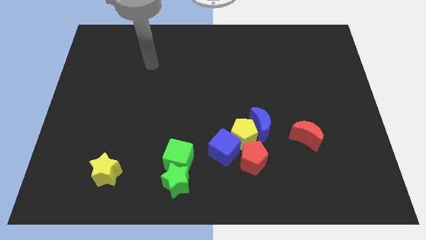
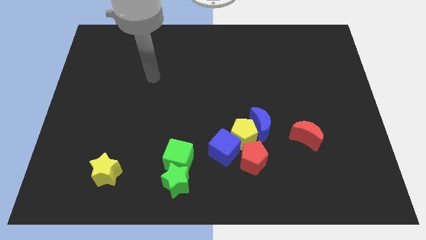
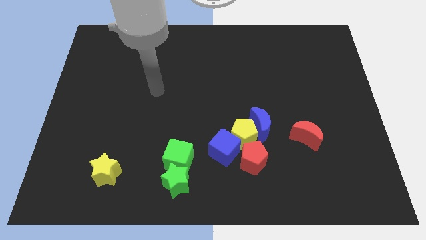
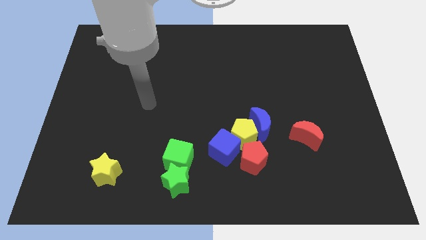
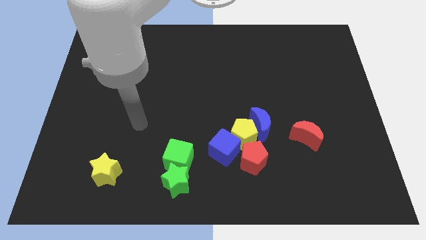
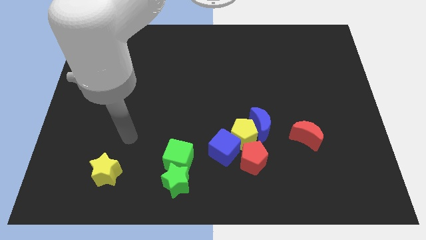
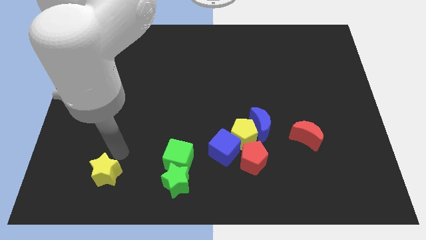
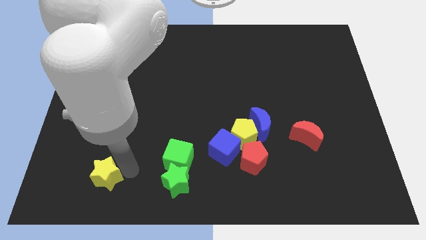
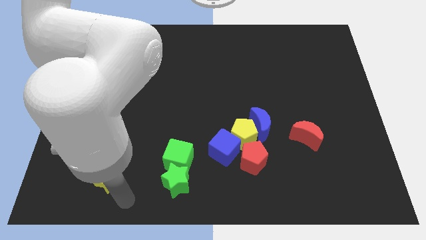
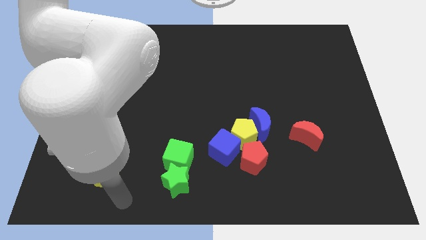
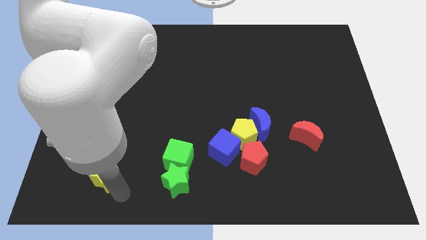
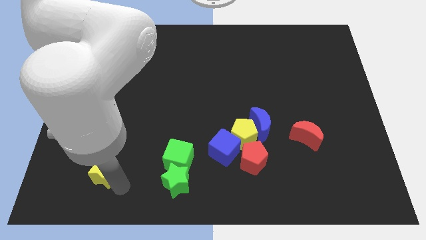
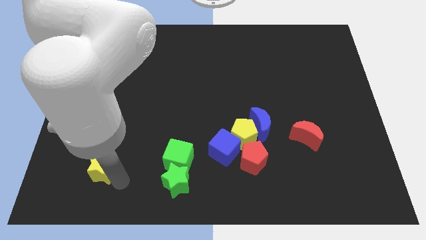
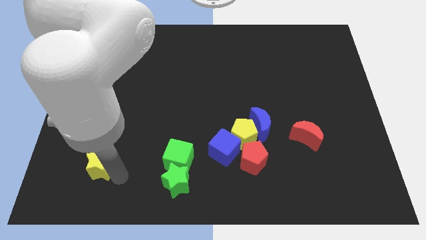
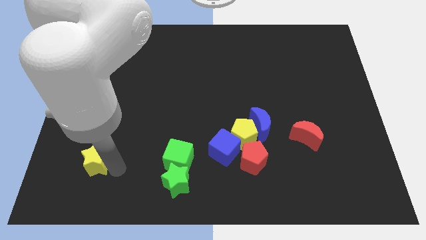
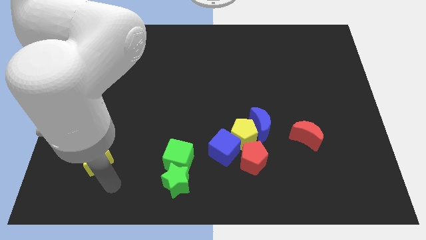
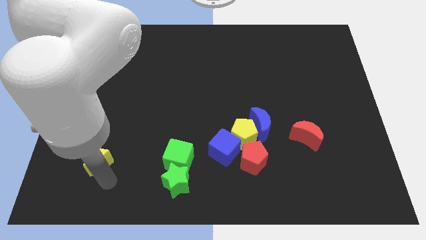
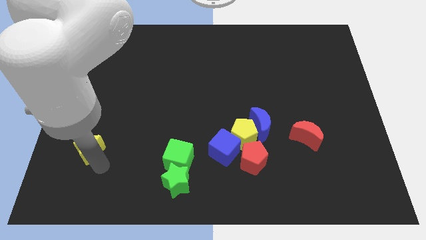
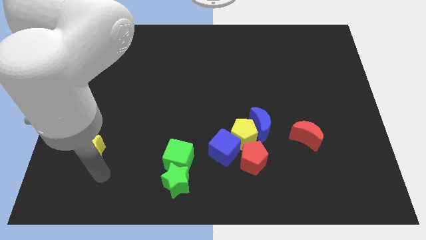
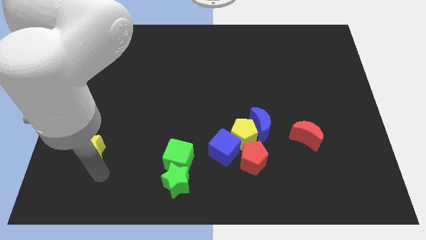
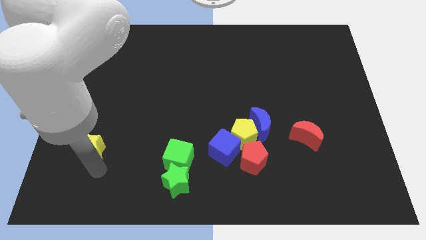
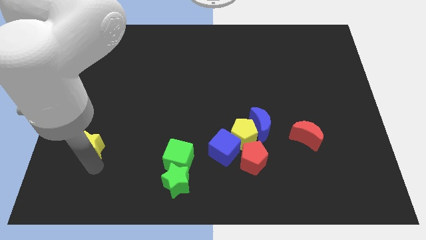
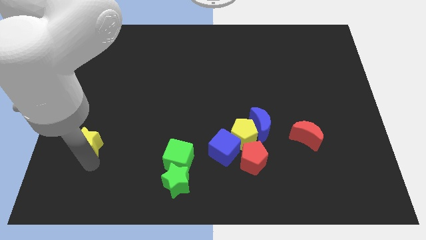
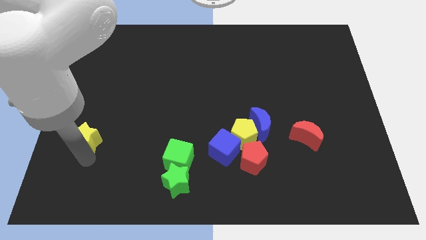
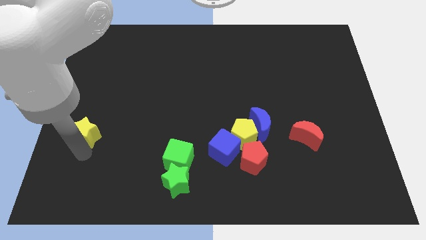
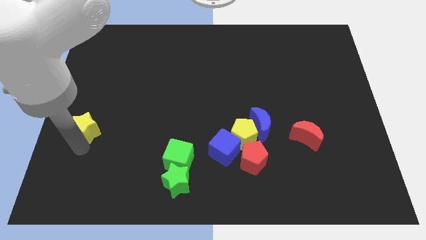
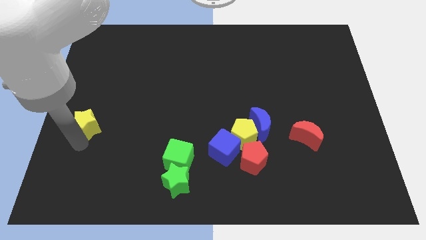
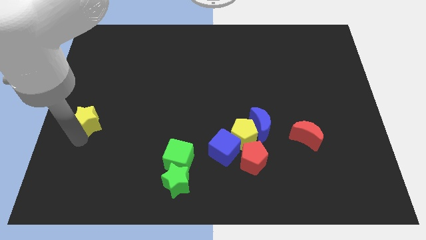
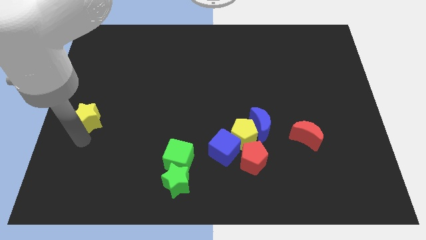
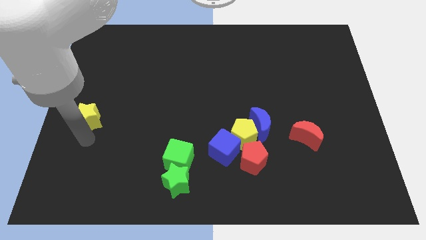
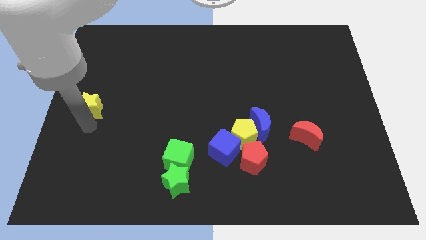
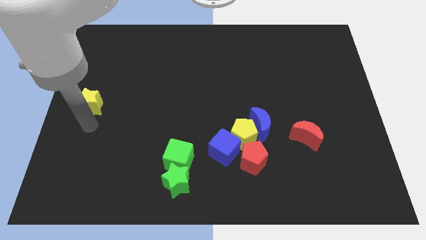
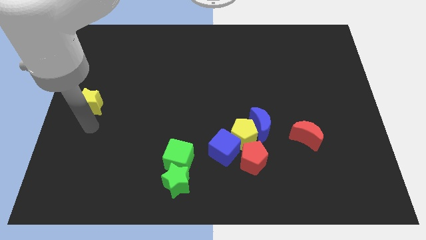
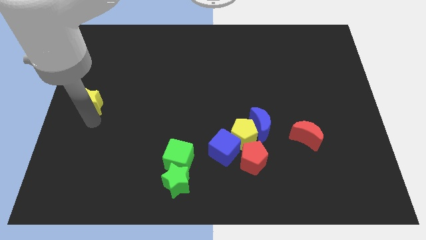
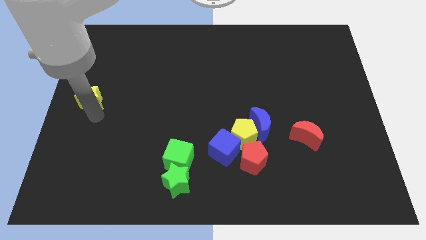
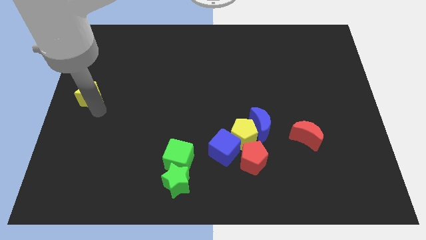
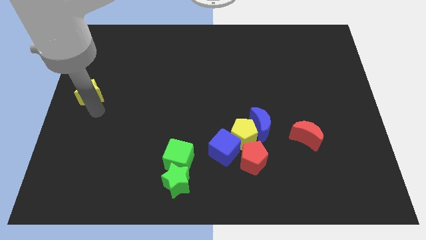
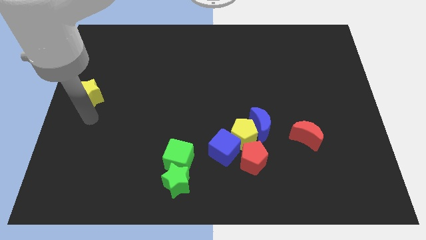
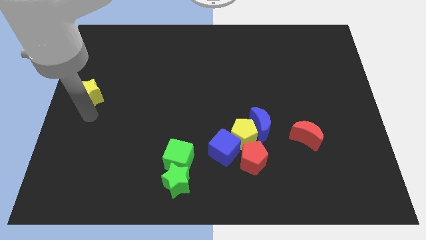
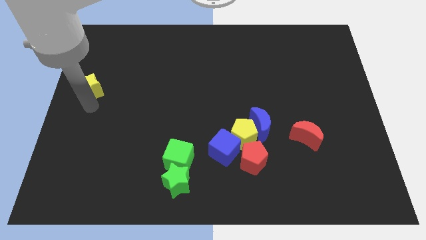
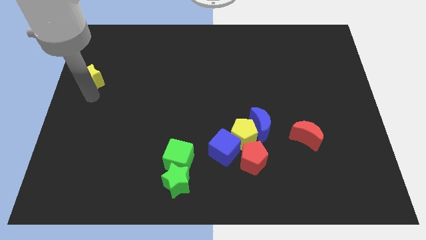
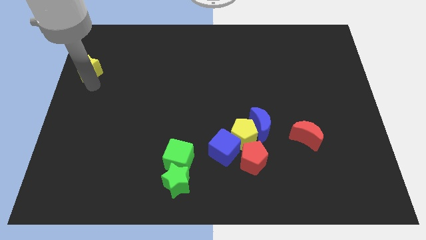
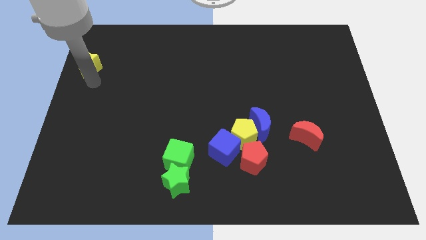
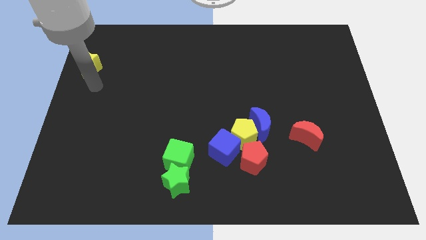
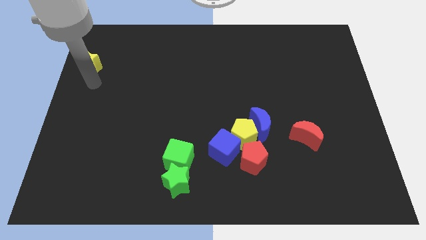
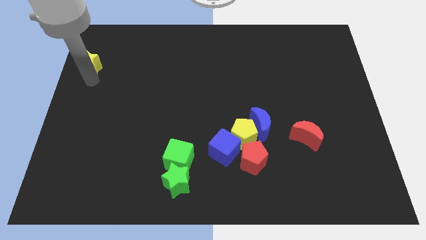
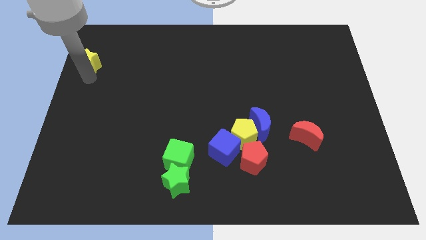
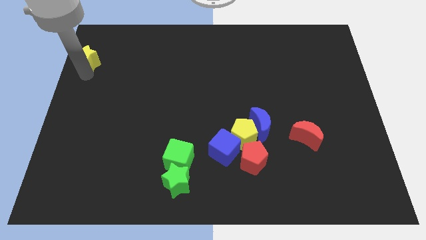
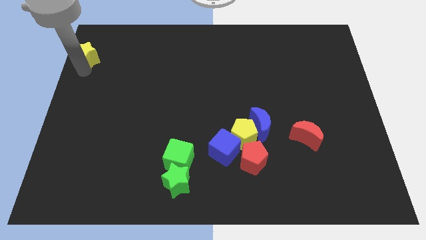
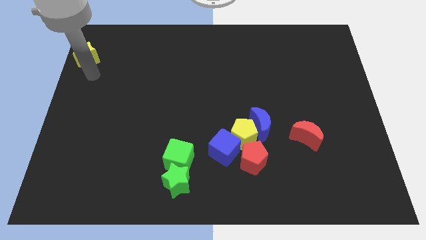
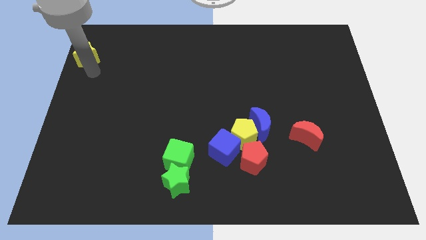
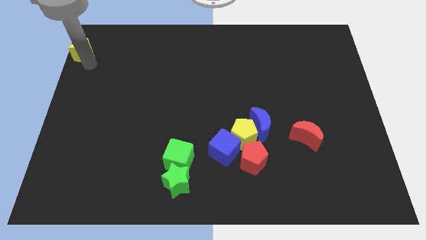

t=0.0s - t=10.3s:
push the yellow star to the upper left corner

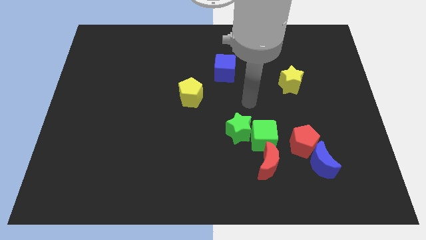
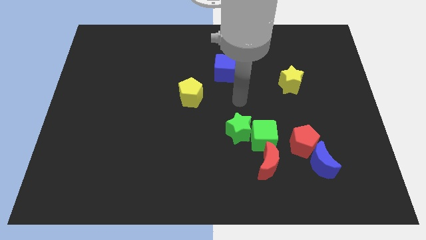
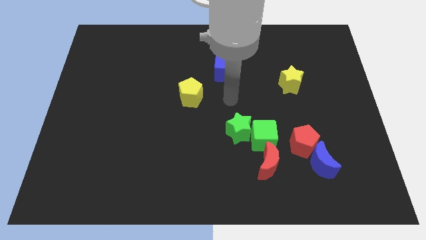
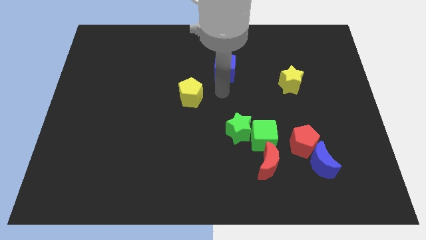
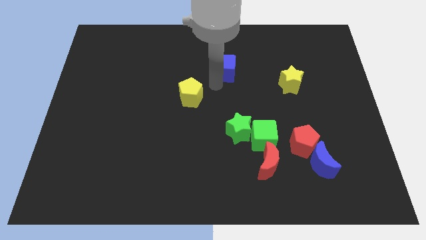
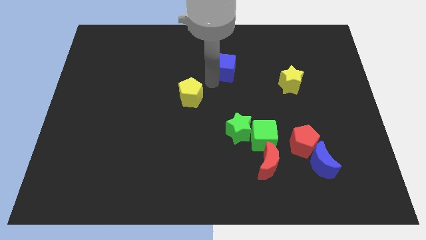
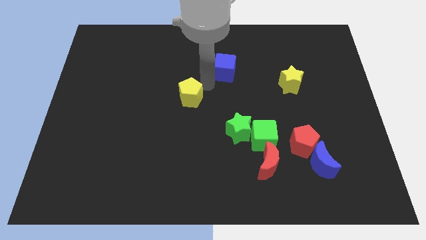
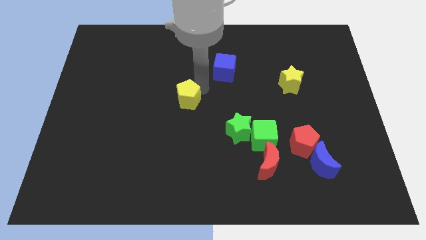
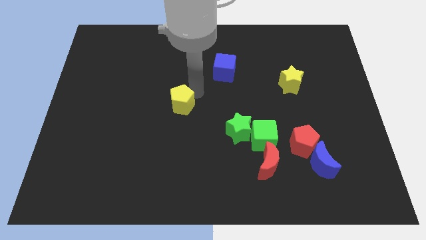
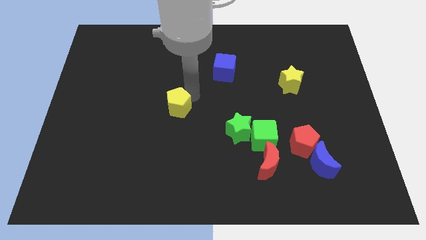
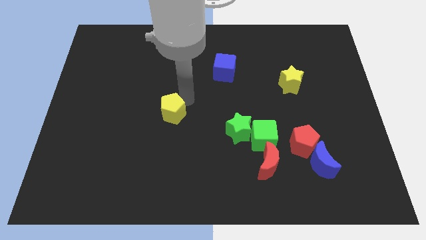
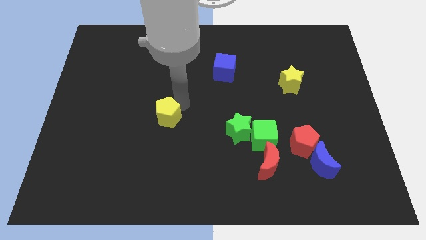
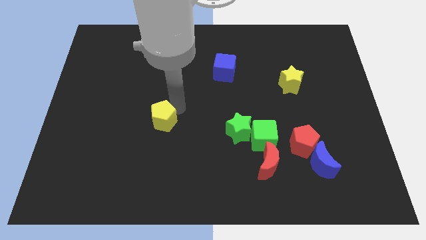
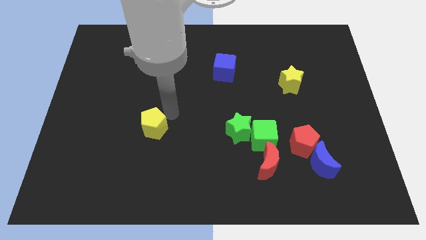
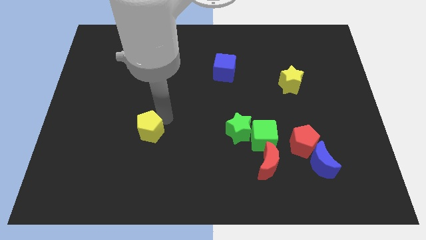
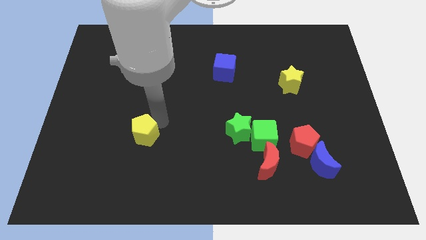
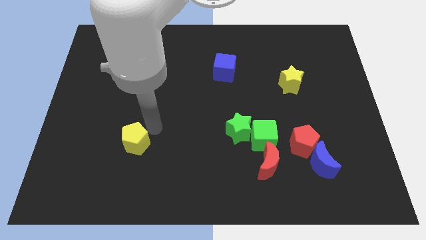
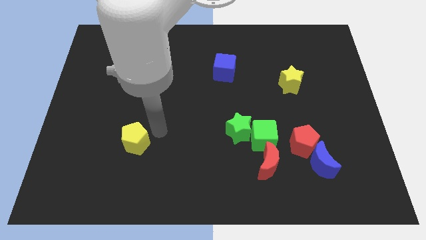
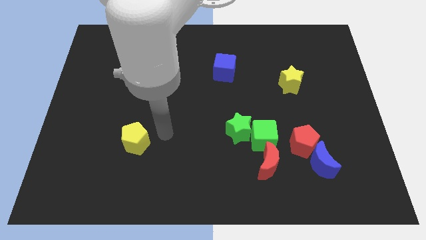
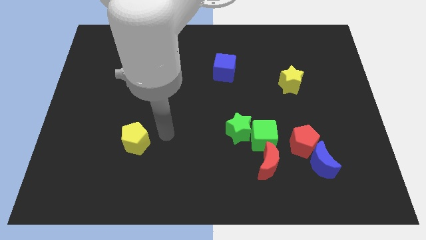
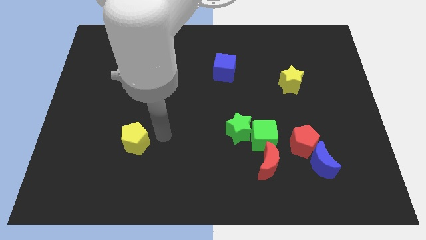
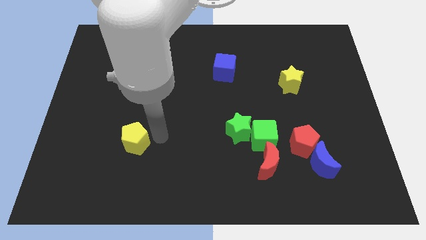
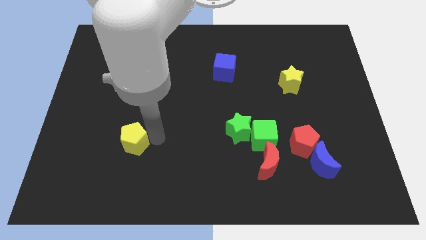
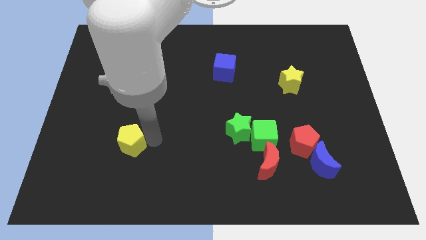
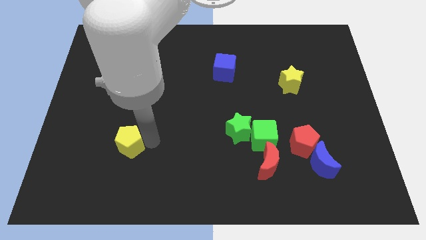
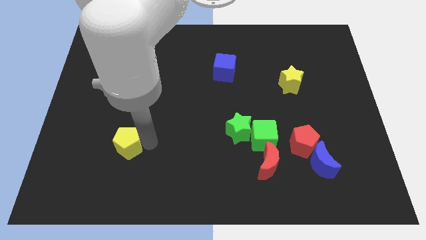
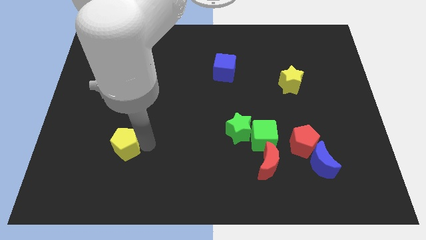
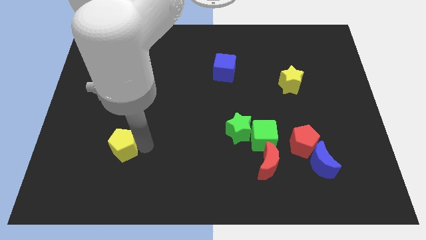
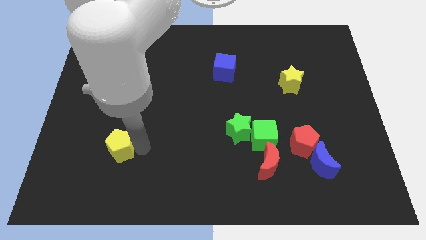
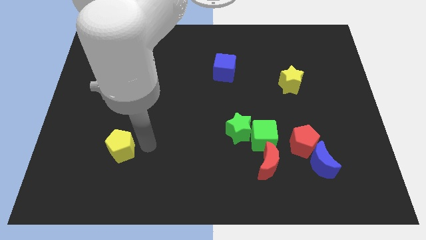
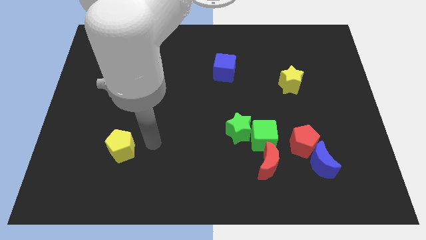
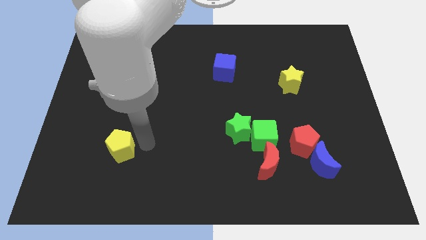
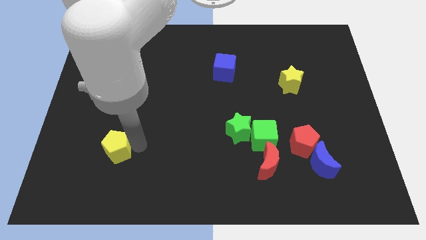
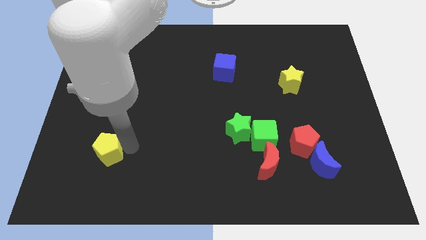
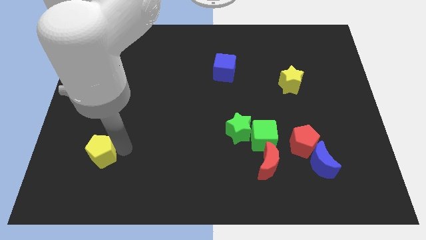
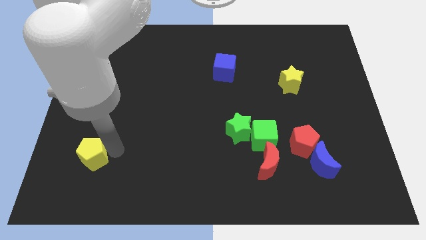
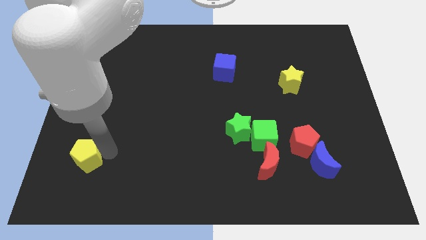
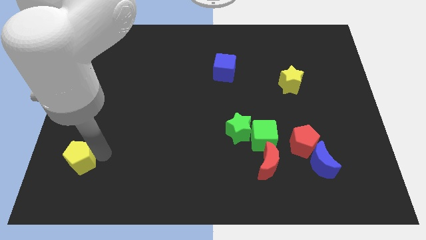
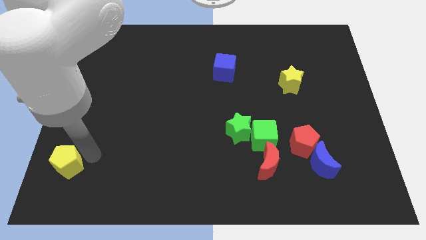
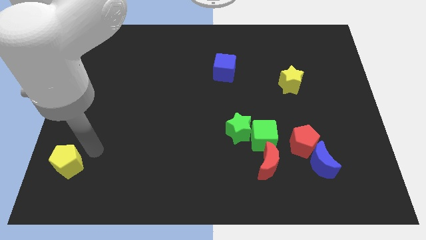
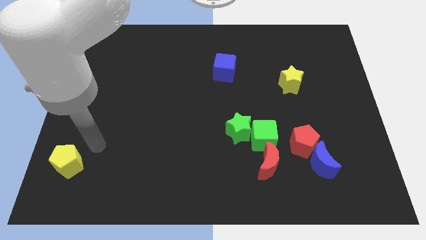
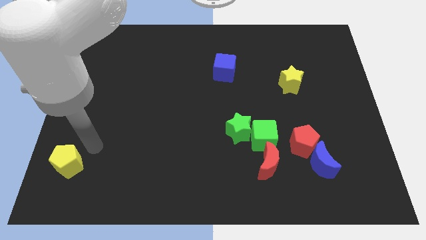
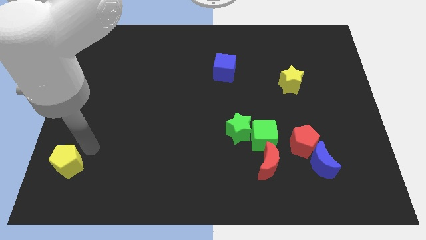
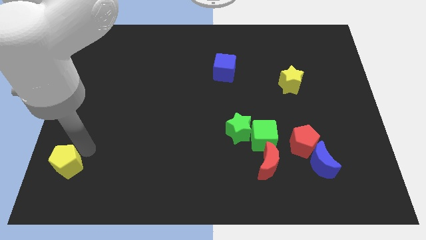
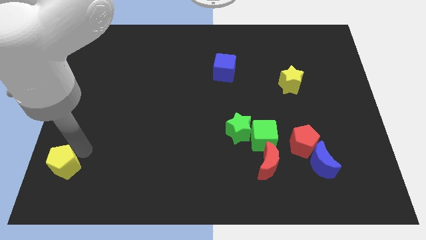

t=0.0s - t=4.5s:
slide the yellow pentagon to the lower left corner
